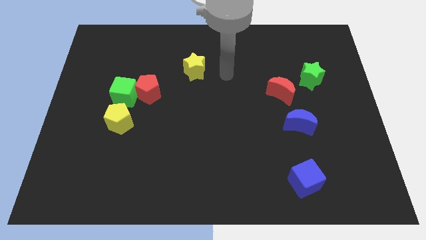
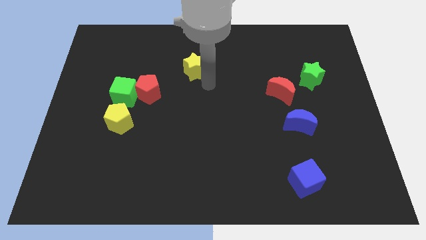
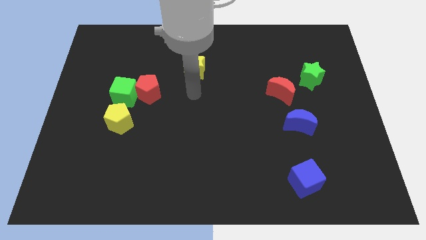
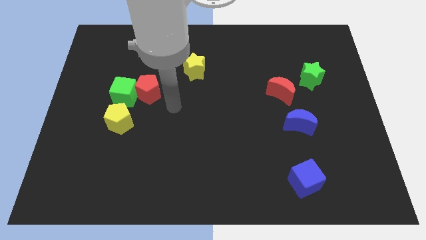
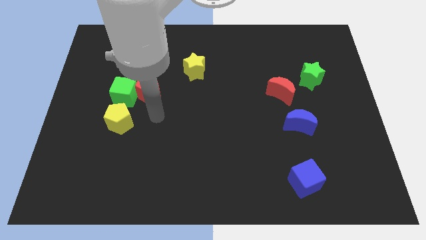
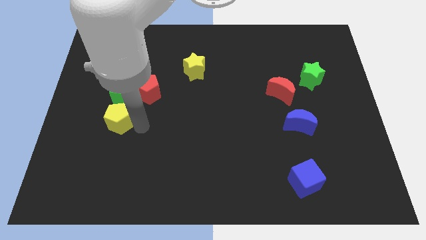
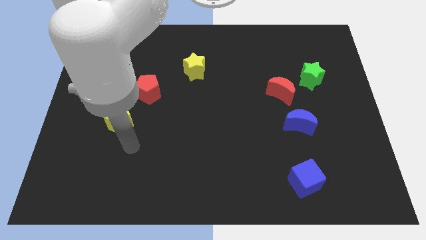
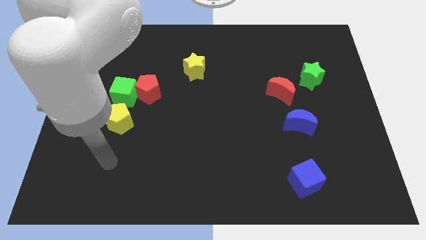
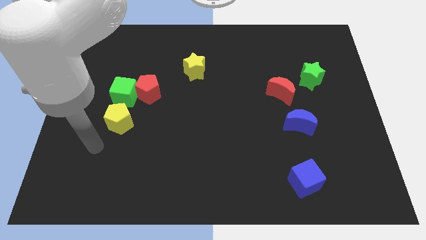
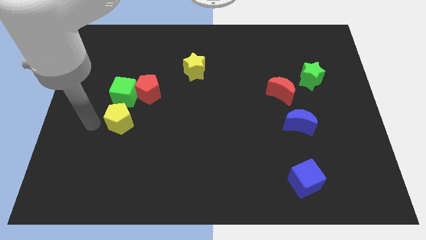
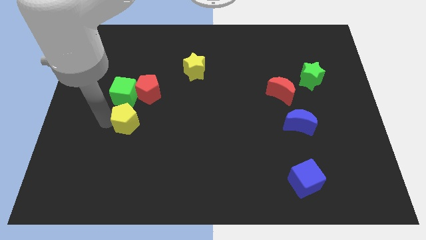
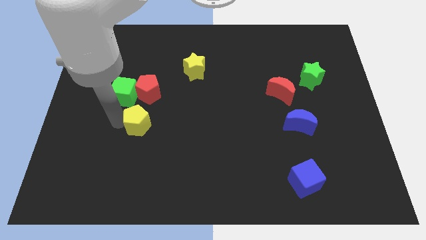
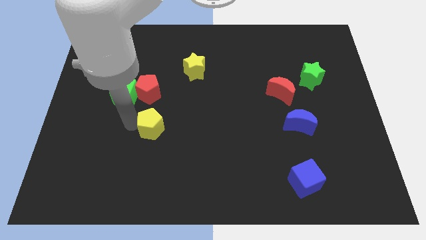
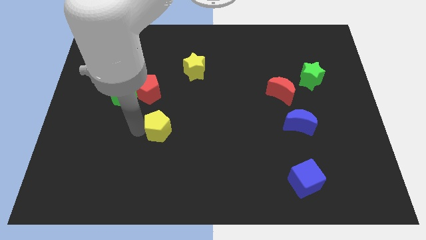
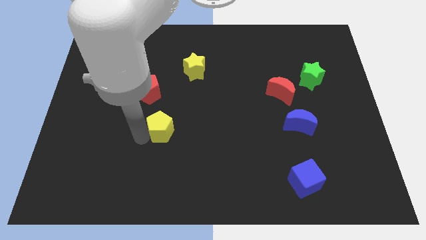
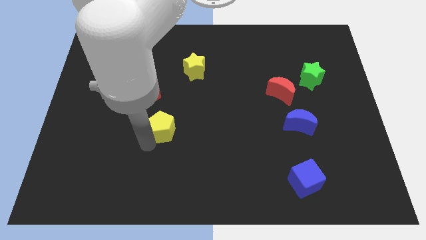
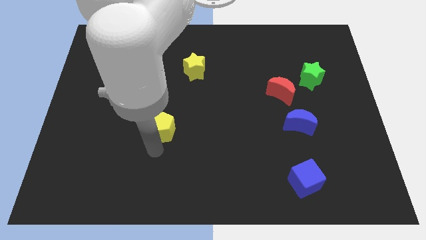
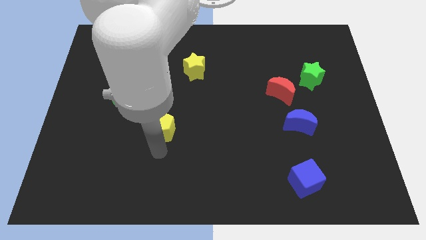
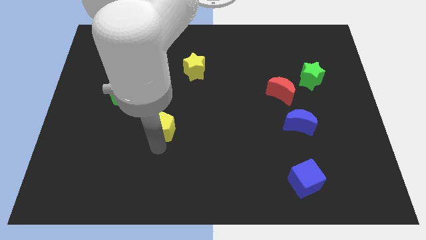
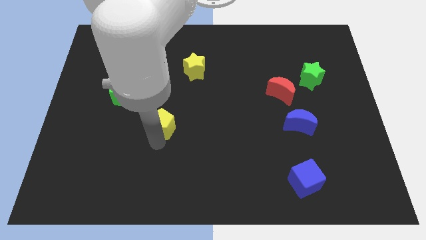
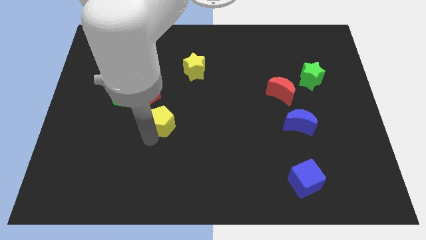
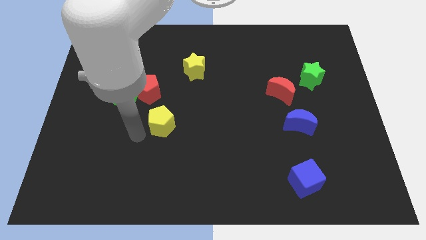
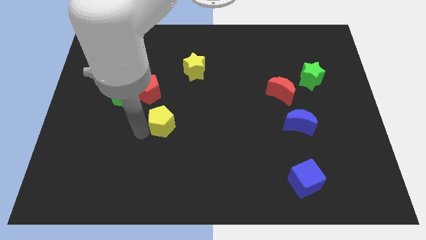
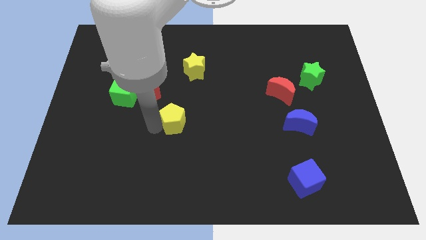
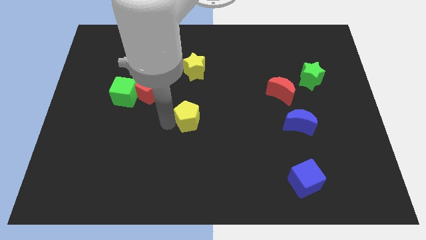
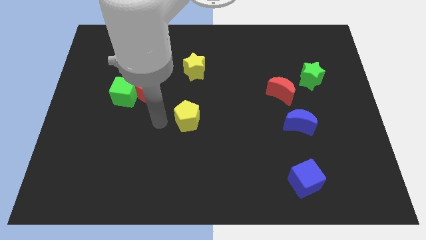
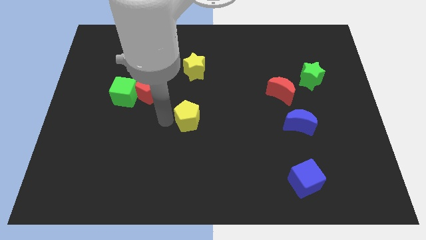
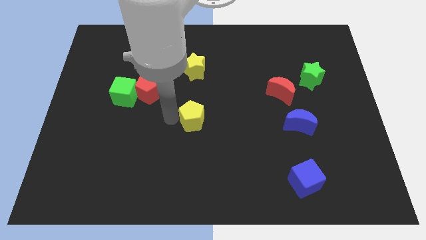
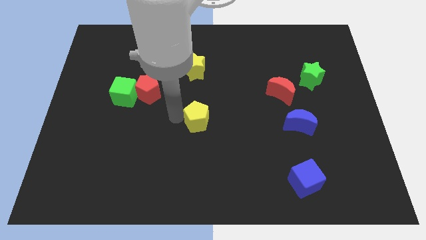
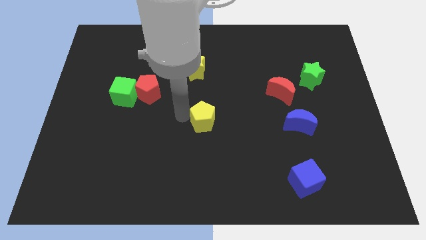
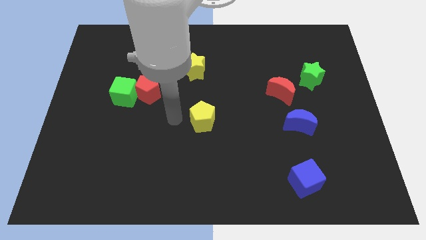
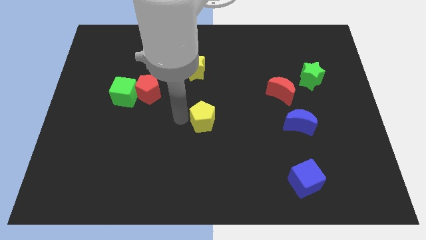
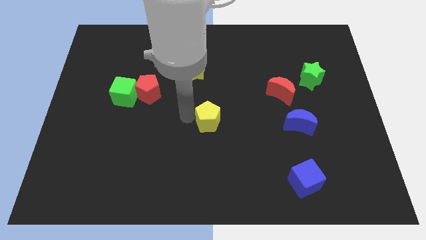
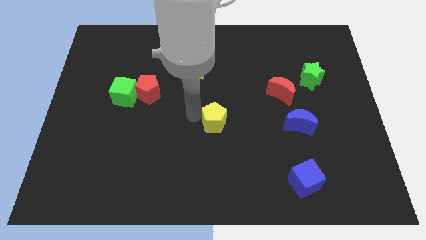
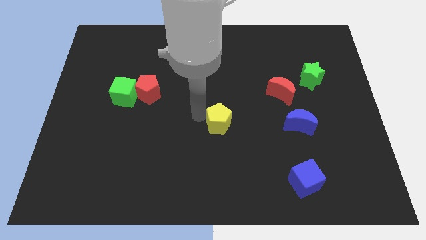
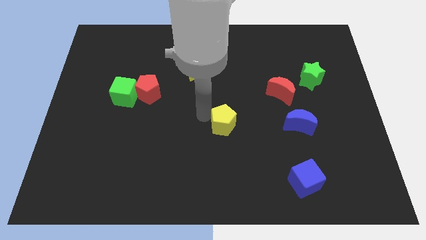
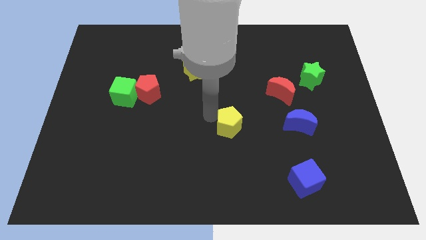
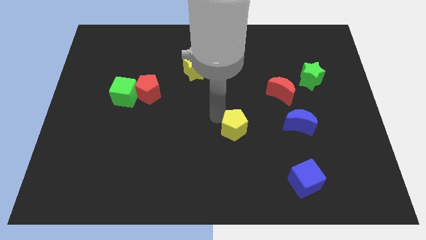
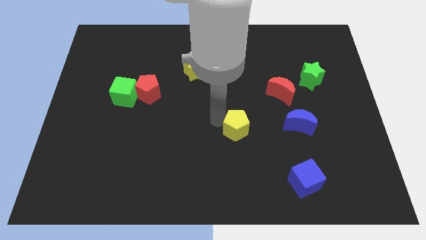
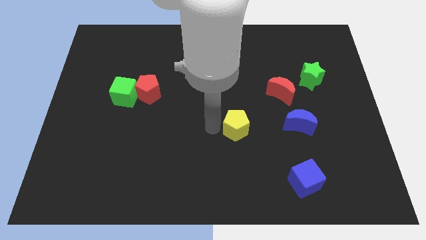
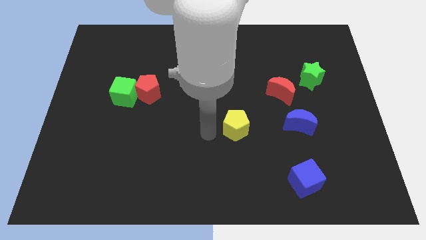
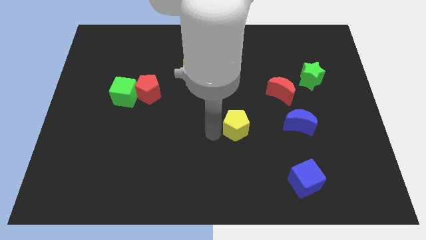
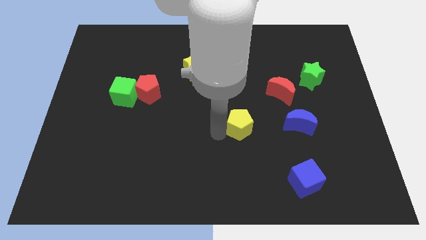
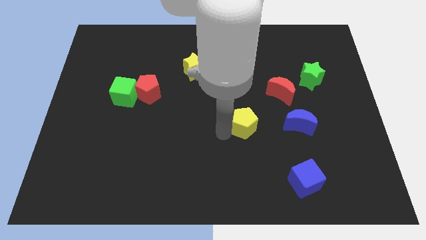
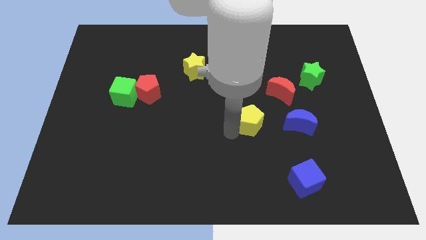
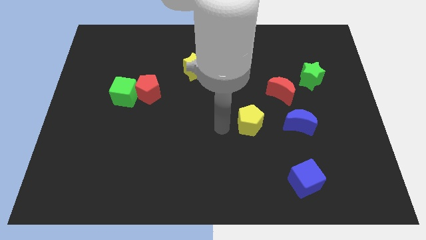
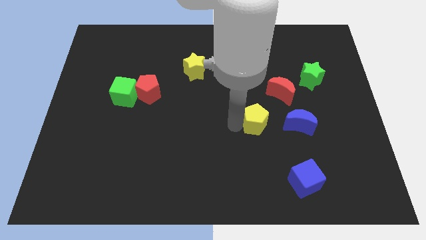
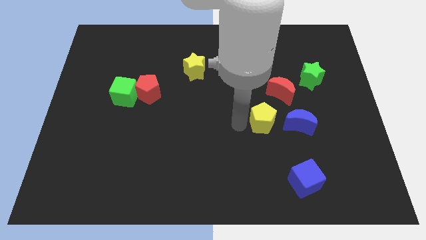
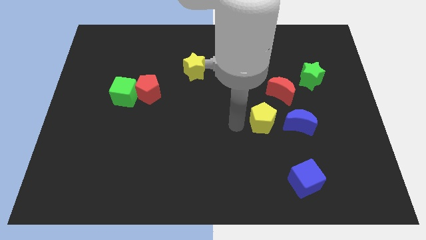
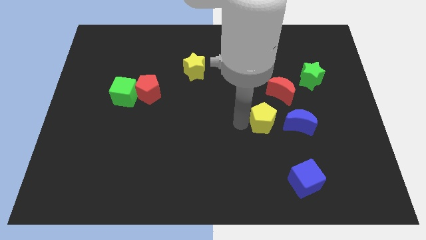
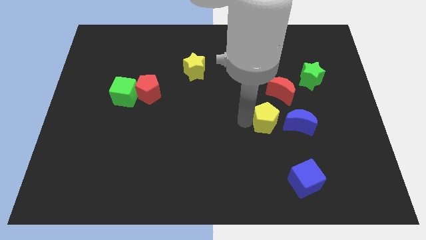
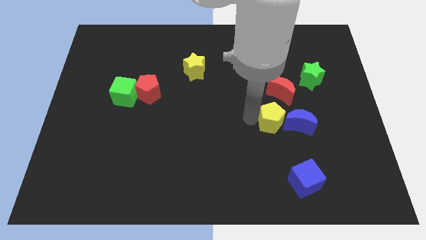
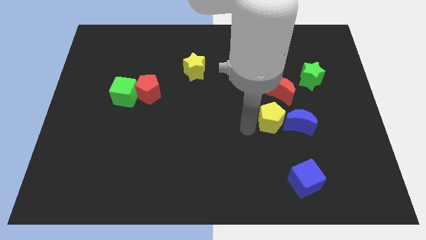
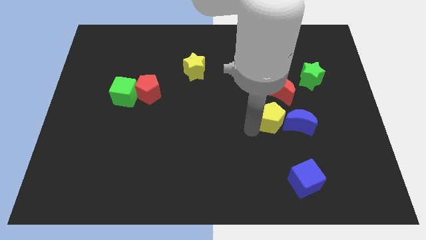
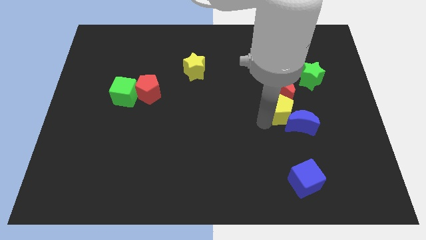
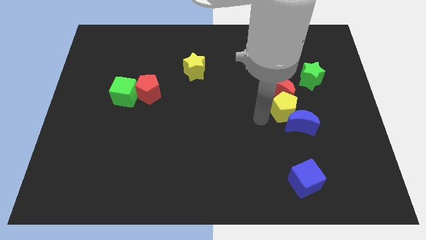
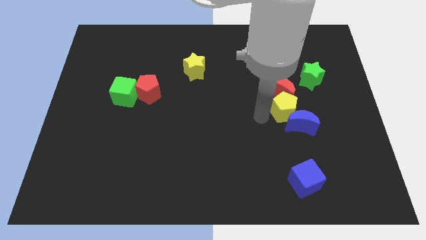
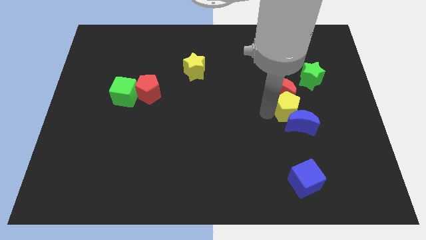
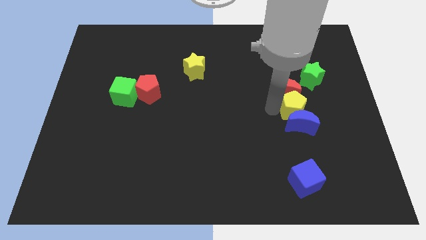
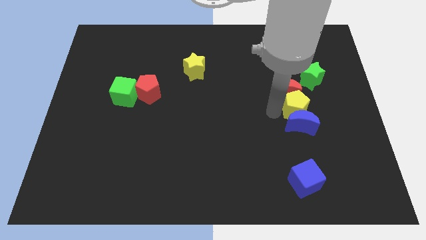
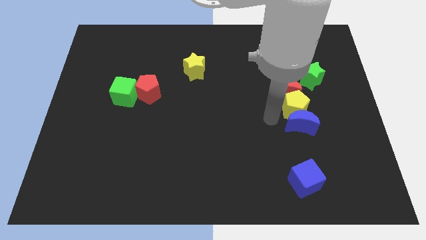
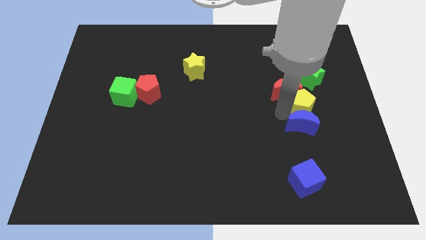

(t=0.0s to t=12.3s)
move the yellow pentagon to the right side of the red moon
